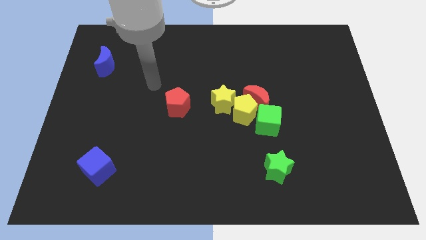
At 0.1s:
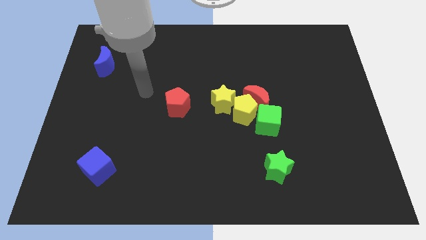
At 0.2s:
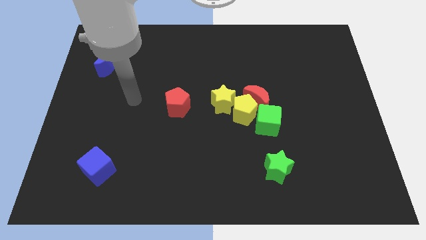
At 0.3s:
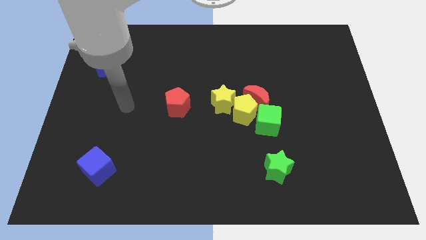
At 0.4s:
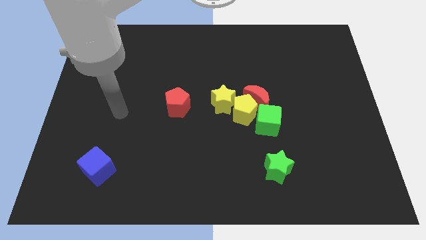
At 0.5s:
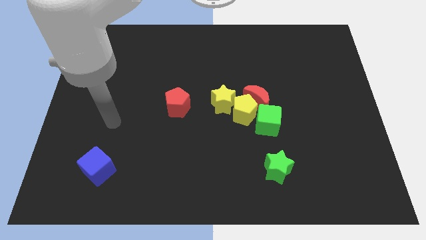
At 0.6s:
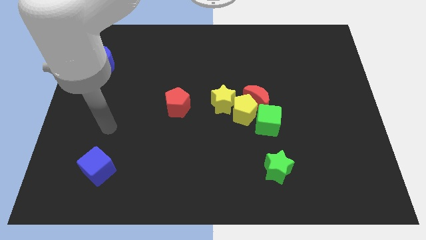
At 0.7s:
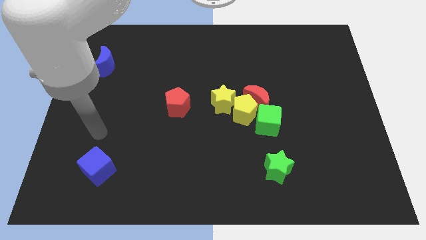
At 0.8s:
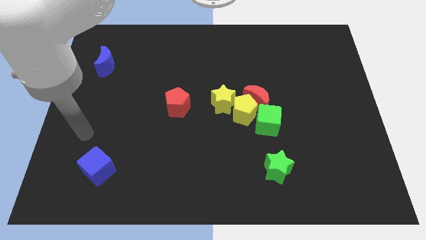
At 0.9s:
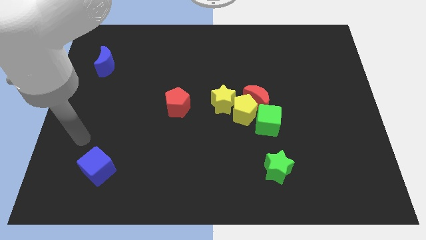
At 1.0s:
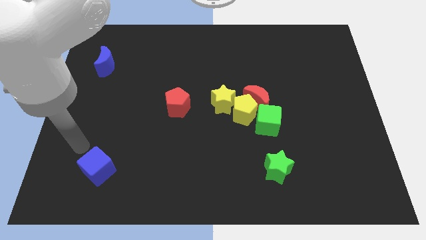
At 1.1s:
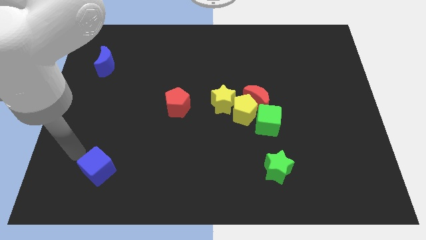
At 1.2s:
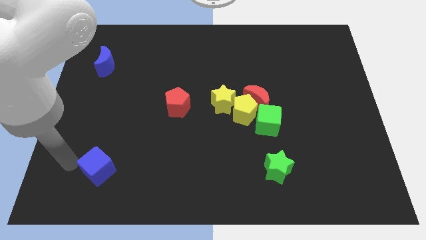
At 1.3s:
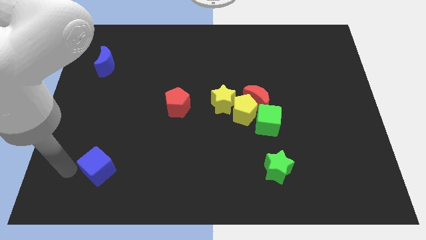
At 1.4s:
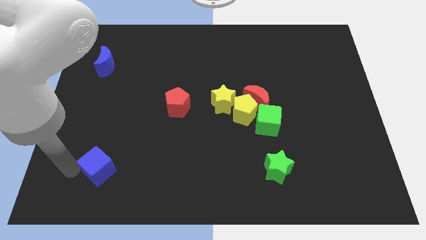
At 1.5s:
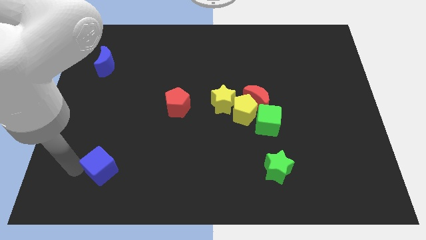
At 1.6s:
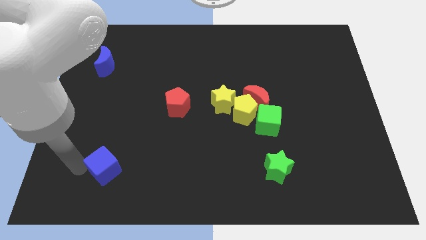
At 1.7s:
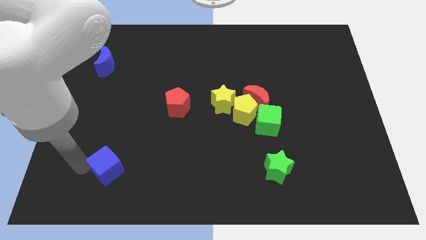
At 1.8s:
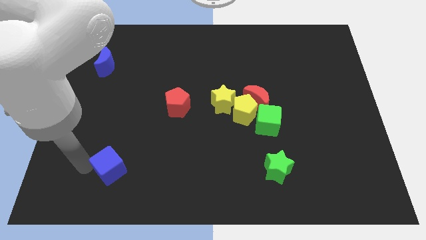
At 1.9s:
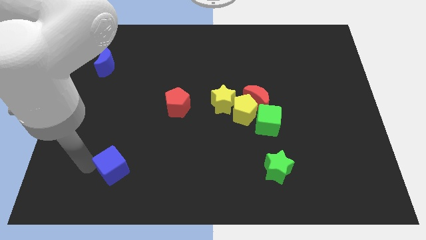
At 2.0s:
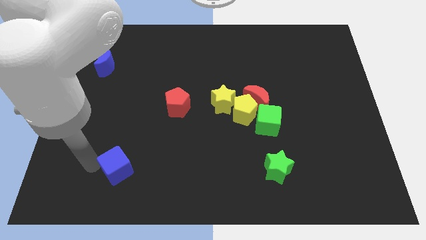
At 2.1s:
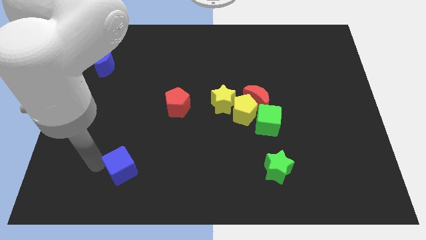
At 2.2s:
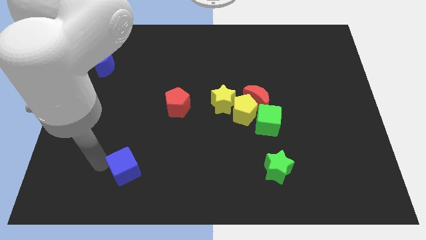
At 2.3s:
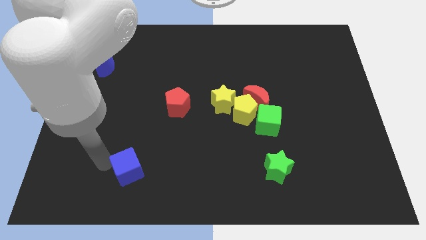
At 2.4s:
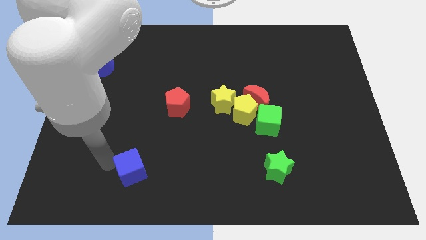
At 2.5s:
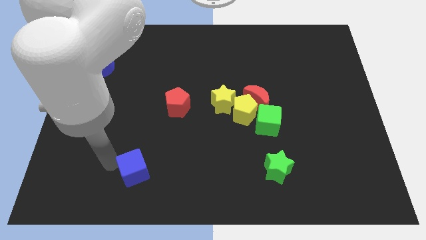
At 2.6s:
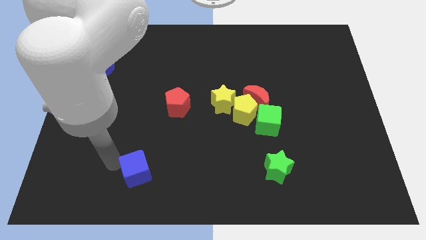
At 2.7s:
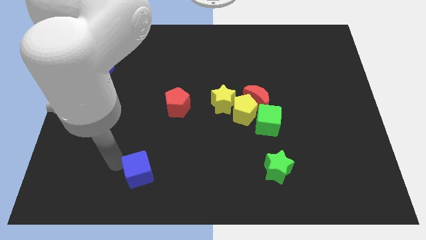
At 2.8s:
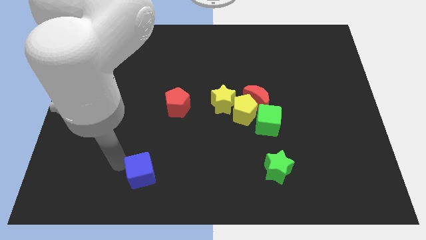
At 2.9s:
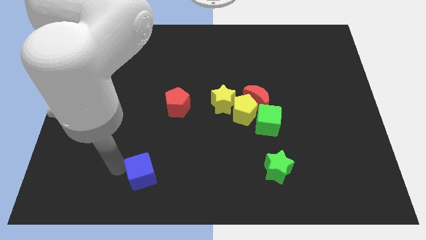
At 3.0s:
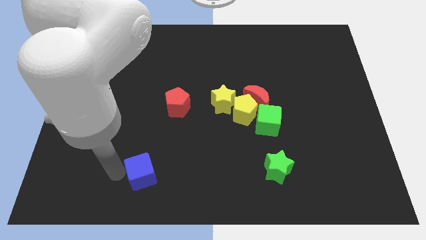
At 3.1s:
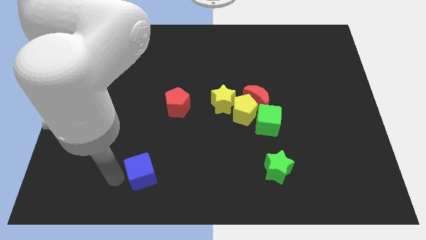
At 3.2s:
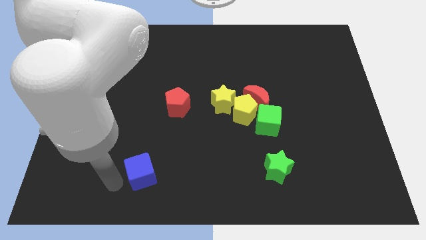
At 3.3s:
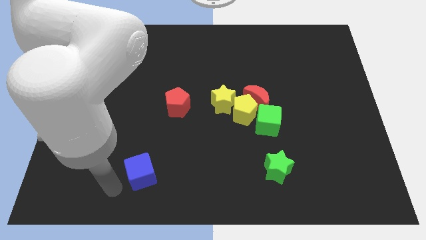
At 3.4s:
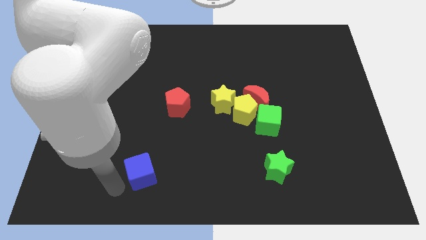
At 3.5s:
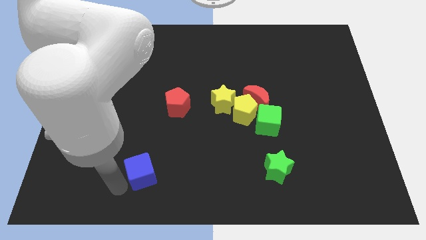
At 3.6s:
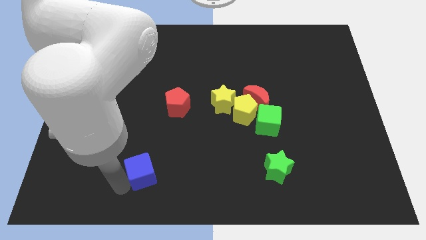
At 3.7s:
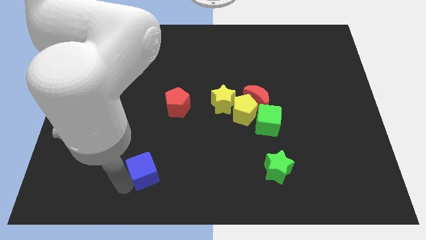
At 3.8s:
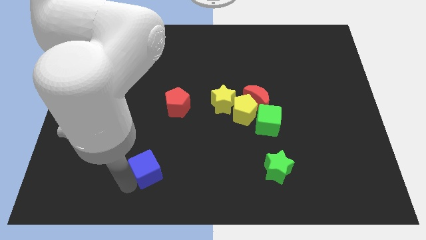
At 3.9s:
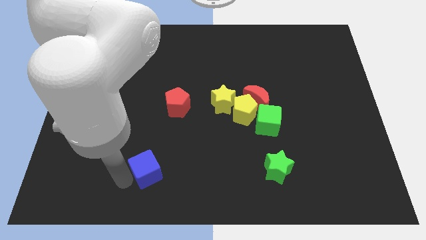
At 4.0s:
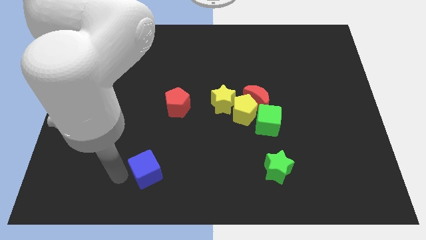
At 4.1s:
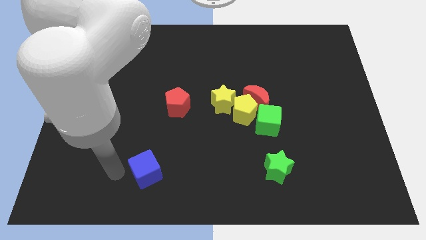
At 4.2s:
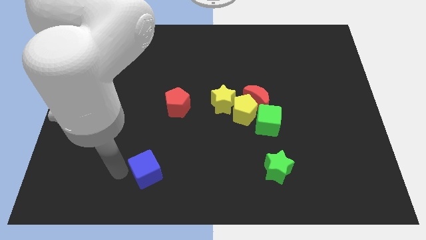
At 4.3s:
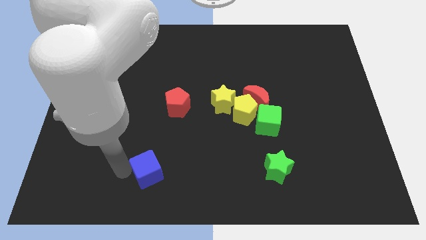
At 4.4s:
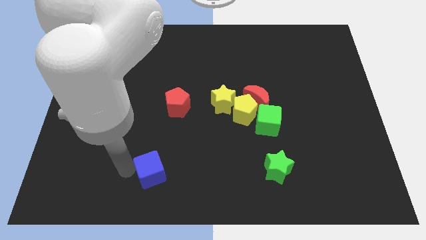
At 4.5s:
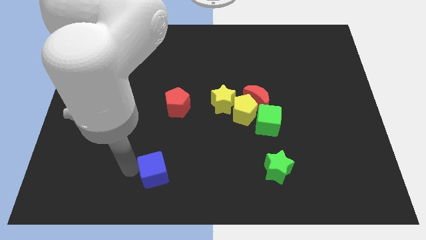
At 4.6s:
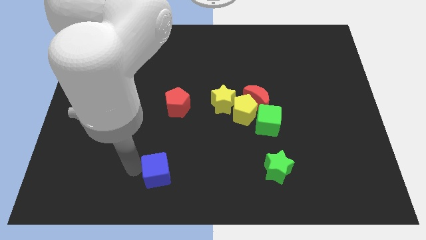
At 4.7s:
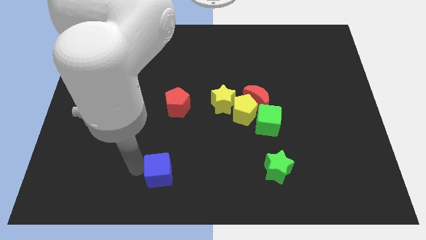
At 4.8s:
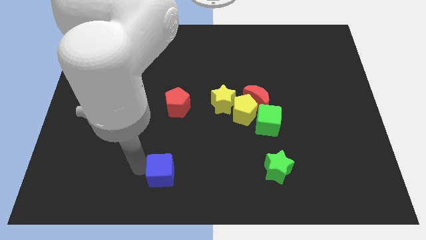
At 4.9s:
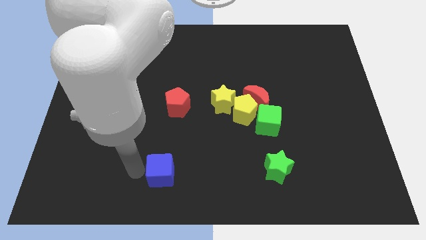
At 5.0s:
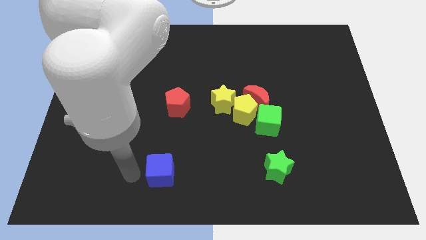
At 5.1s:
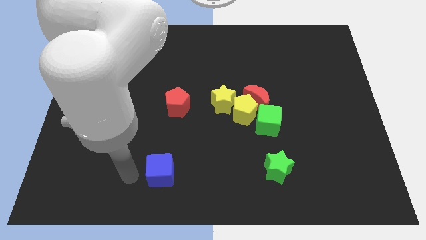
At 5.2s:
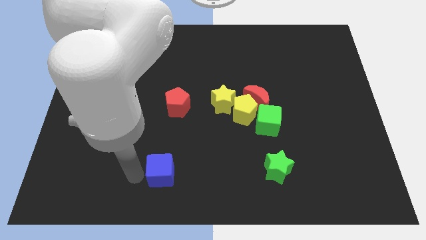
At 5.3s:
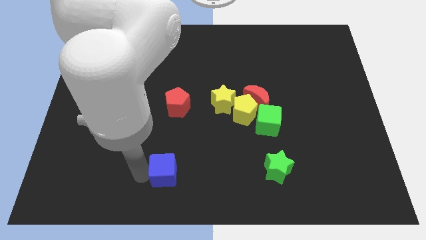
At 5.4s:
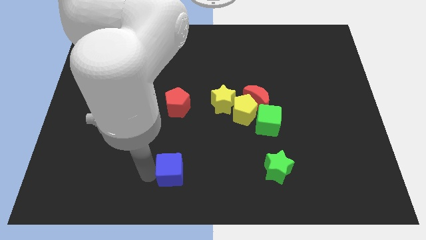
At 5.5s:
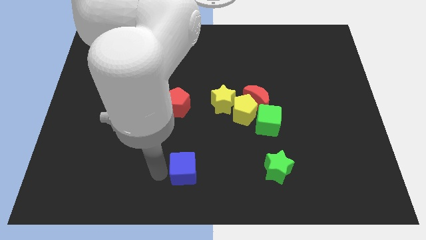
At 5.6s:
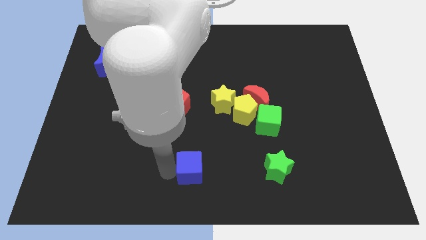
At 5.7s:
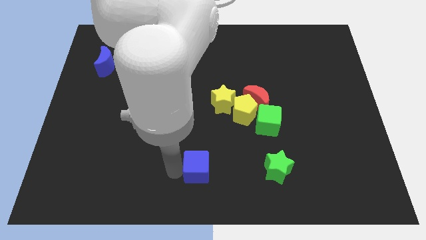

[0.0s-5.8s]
push the blue cube to the right

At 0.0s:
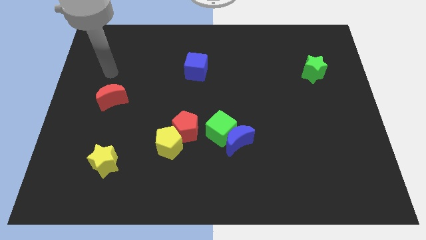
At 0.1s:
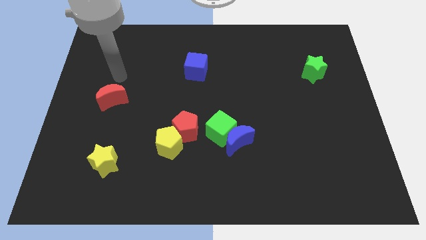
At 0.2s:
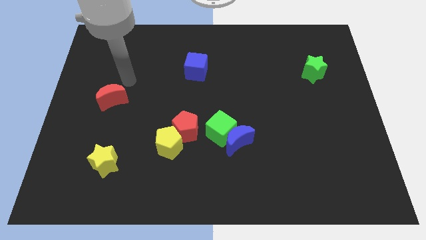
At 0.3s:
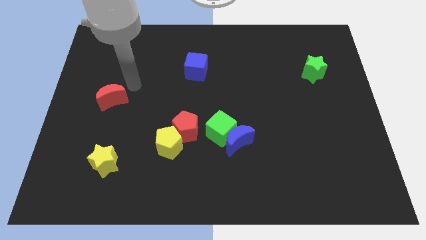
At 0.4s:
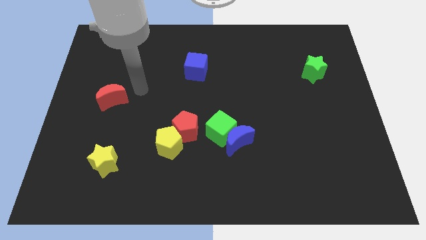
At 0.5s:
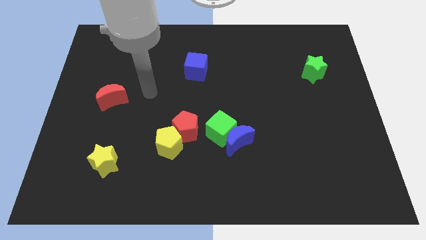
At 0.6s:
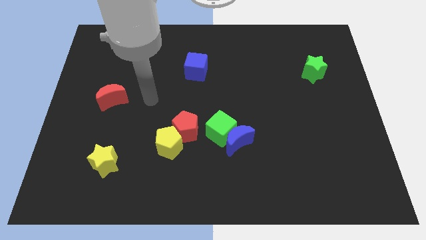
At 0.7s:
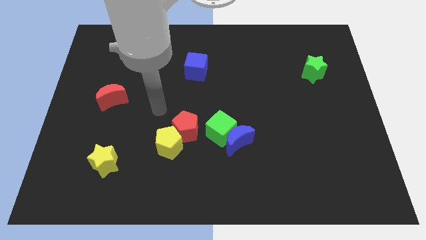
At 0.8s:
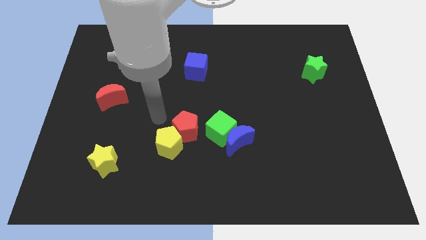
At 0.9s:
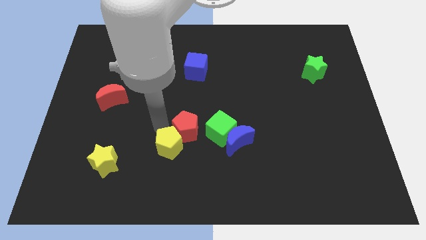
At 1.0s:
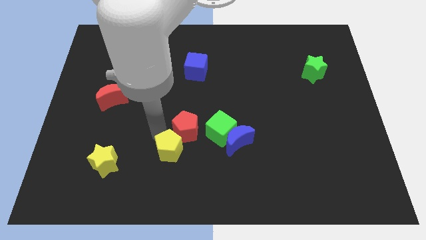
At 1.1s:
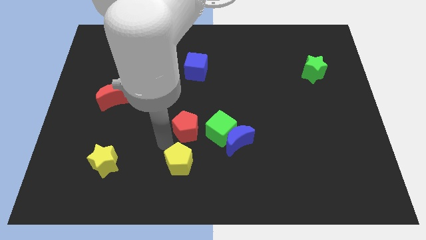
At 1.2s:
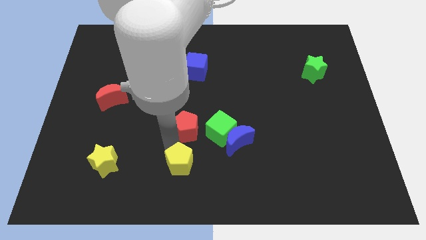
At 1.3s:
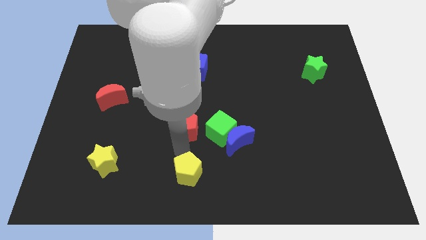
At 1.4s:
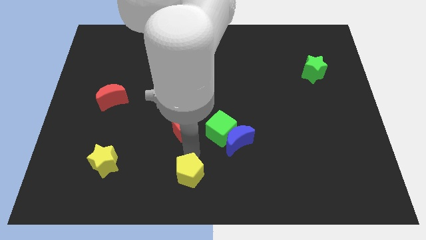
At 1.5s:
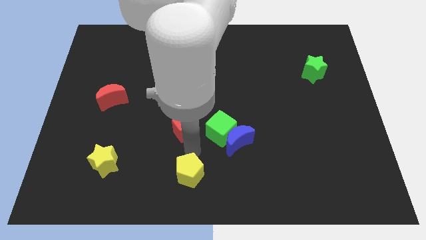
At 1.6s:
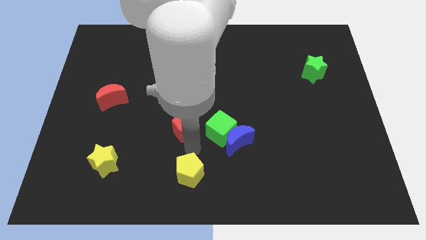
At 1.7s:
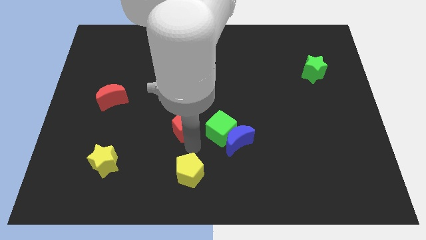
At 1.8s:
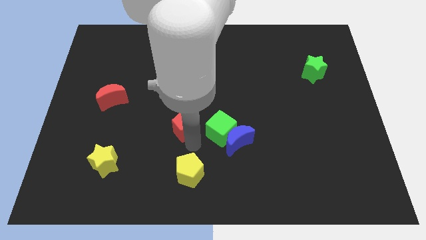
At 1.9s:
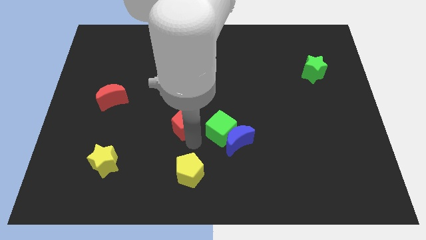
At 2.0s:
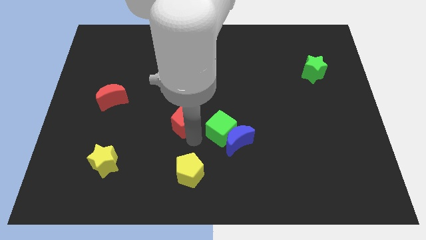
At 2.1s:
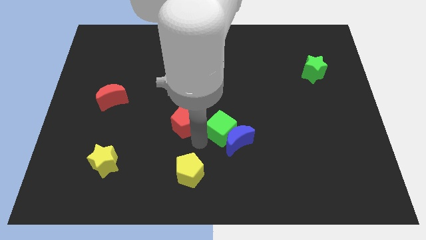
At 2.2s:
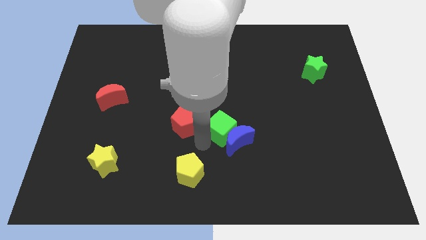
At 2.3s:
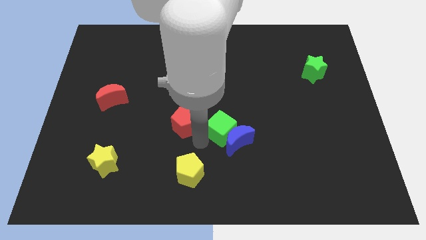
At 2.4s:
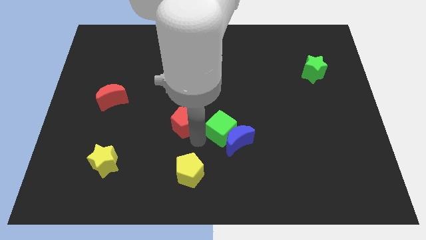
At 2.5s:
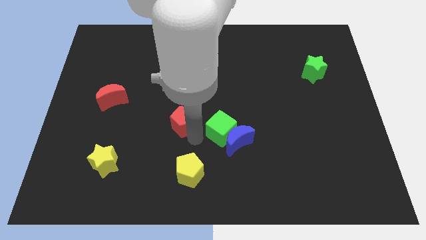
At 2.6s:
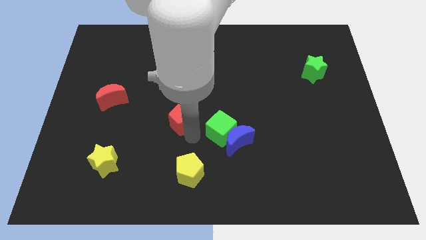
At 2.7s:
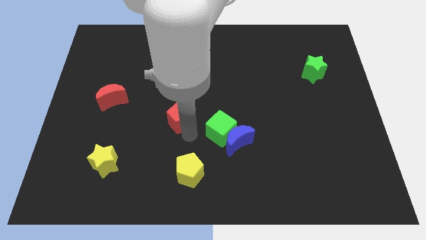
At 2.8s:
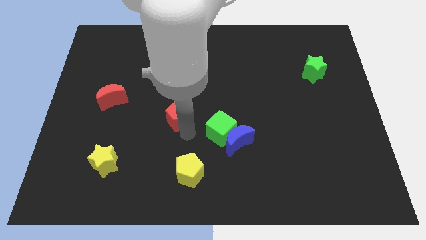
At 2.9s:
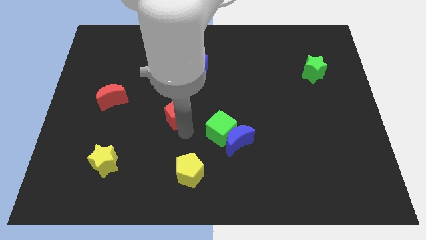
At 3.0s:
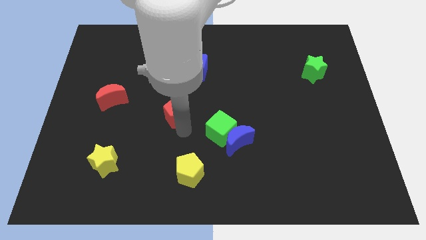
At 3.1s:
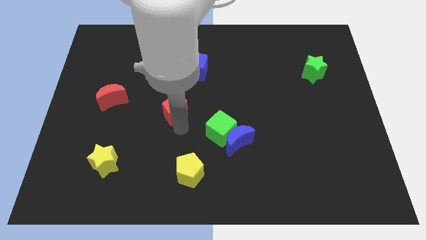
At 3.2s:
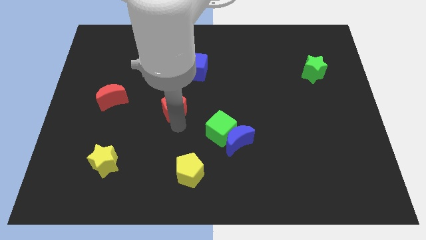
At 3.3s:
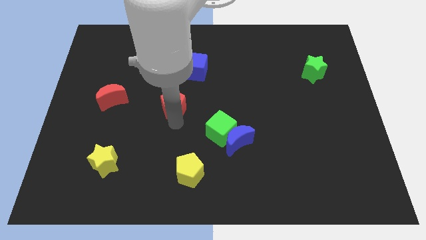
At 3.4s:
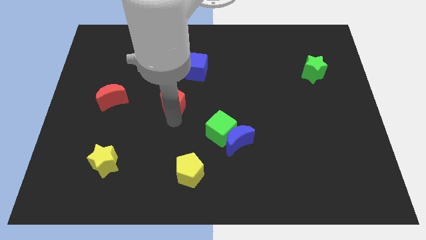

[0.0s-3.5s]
slide the red pentagon a bit upwards and left
